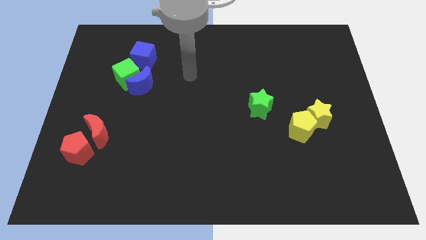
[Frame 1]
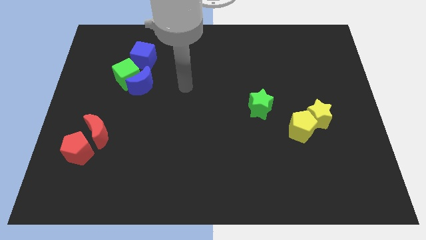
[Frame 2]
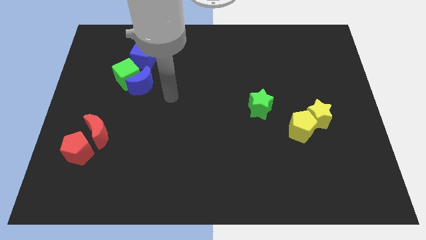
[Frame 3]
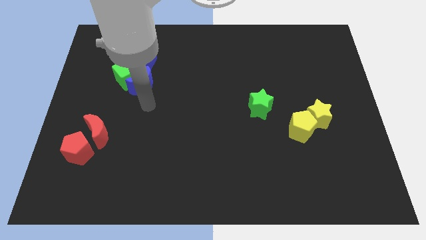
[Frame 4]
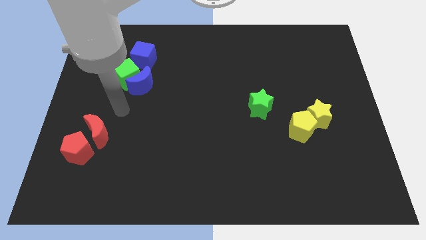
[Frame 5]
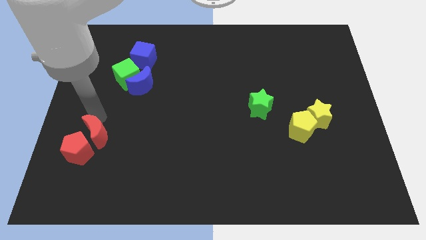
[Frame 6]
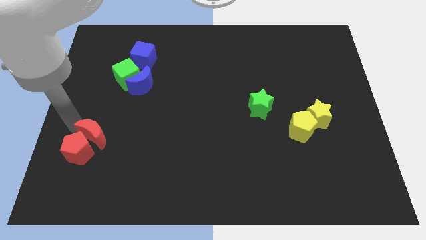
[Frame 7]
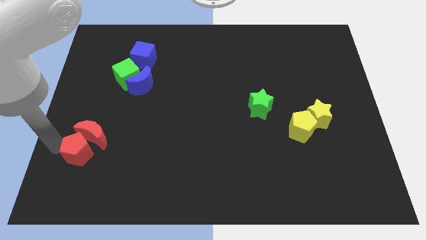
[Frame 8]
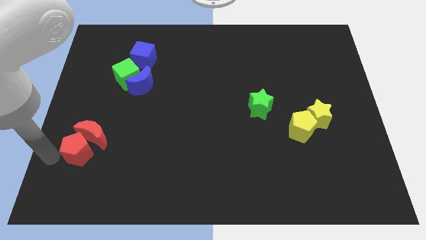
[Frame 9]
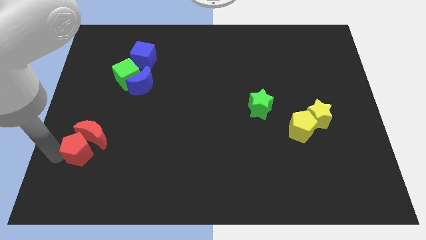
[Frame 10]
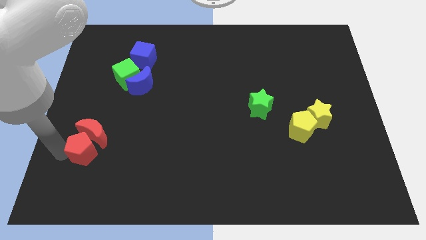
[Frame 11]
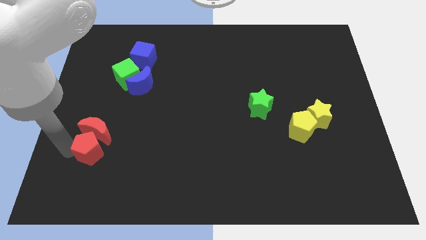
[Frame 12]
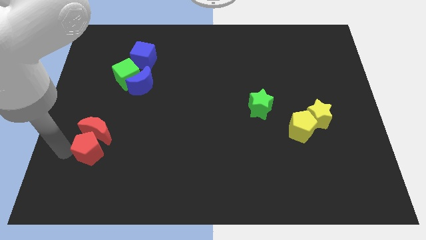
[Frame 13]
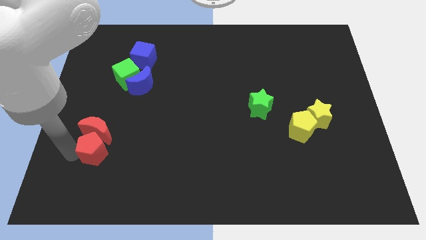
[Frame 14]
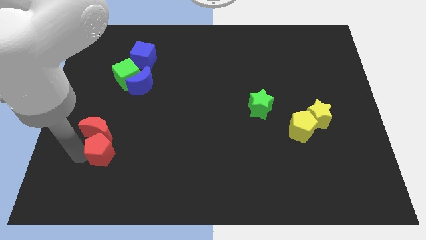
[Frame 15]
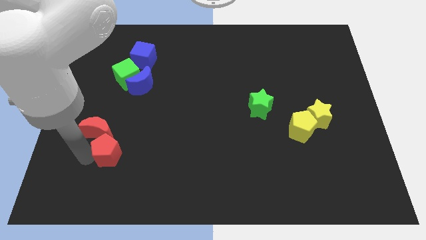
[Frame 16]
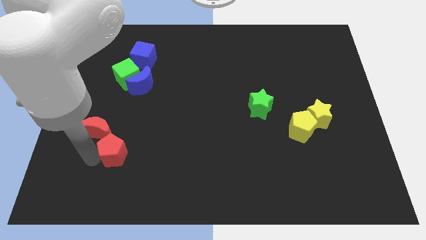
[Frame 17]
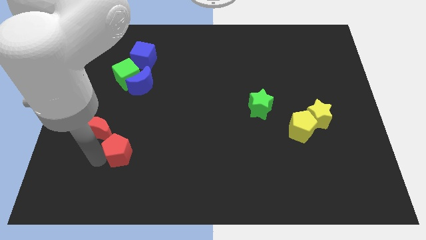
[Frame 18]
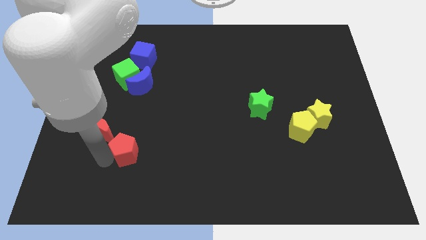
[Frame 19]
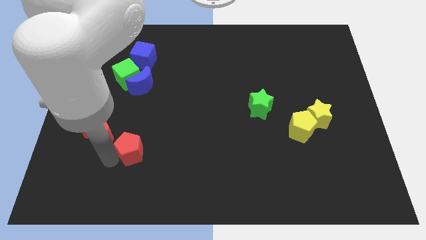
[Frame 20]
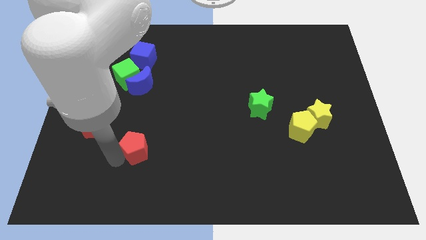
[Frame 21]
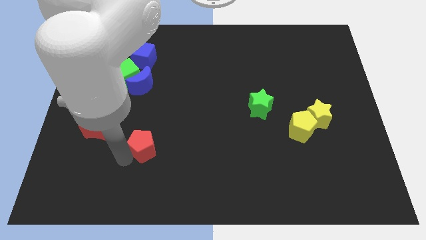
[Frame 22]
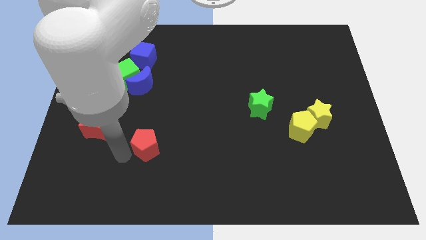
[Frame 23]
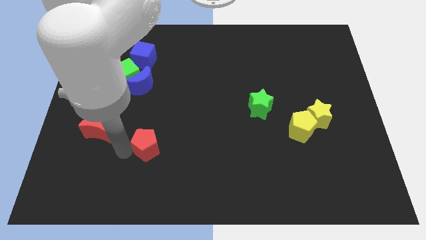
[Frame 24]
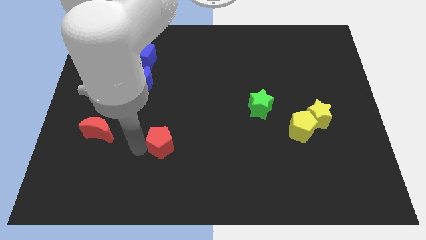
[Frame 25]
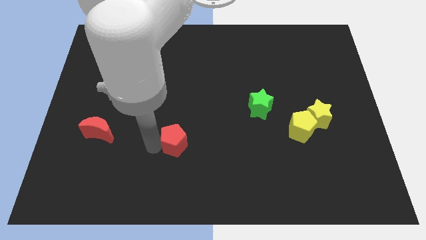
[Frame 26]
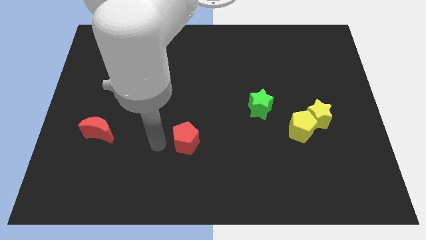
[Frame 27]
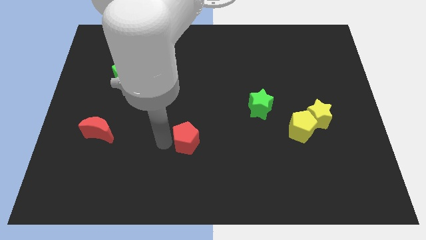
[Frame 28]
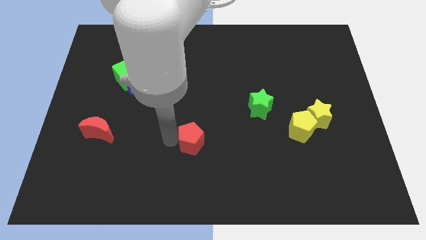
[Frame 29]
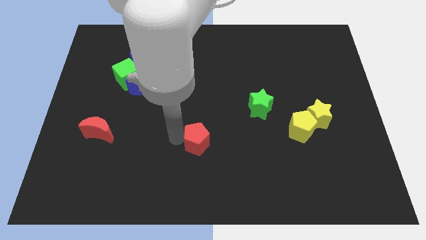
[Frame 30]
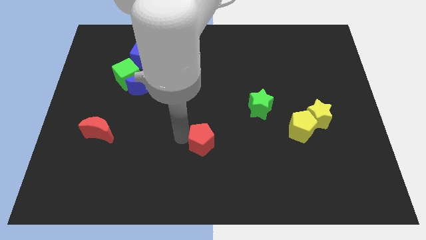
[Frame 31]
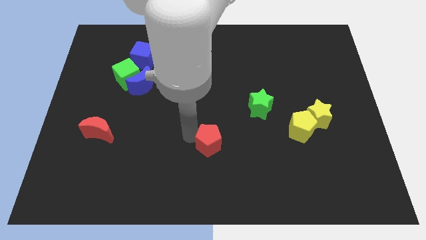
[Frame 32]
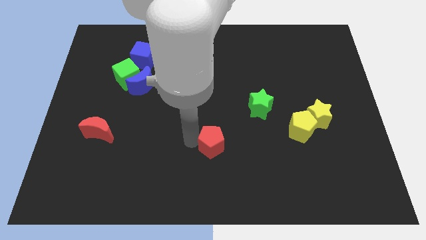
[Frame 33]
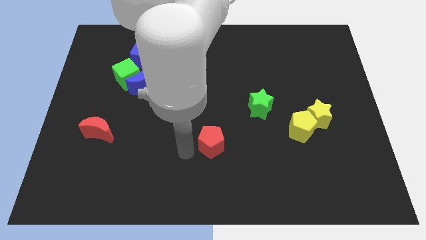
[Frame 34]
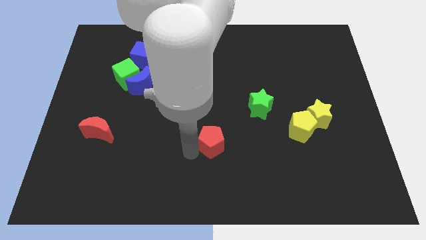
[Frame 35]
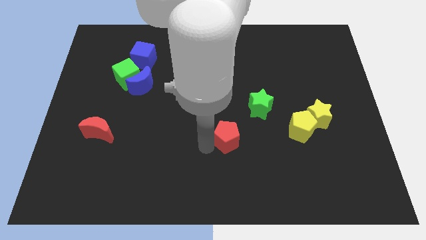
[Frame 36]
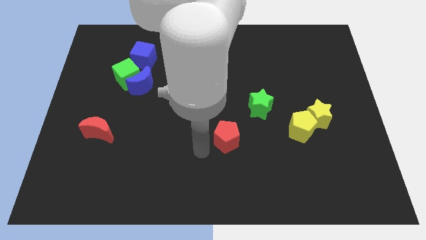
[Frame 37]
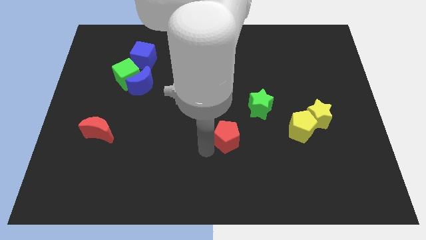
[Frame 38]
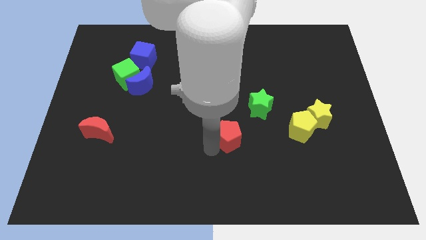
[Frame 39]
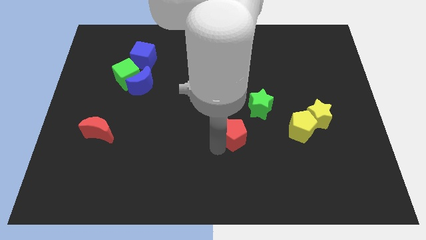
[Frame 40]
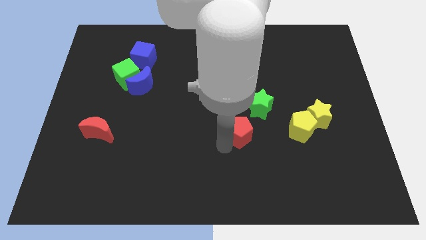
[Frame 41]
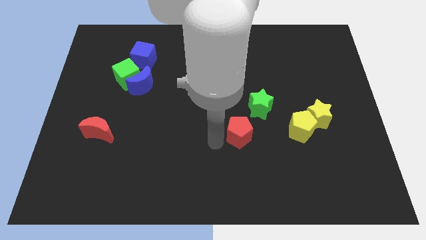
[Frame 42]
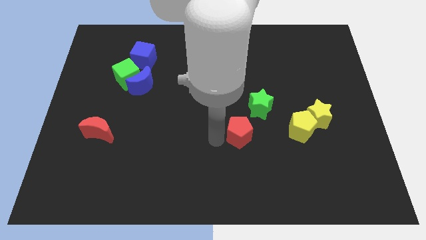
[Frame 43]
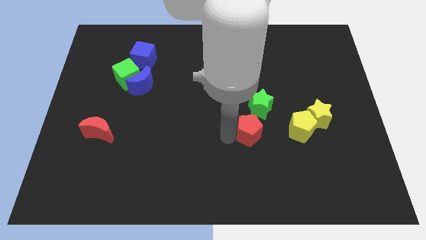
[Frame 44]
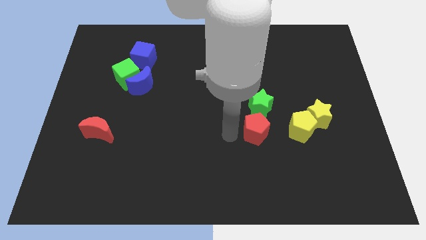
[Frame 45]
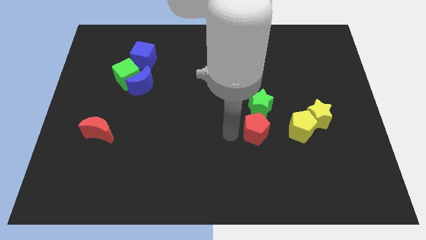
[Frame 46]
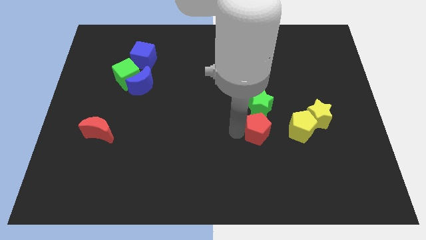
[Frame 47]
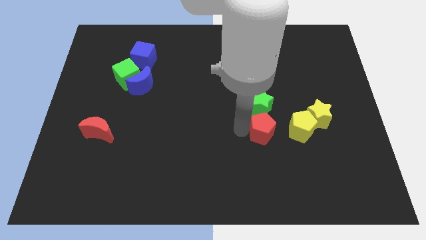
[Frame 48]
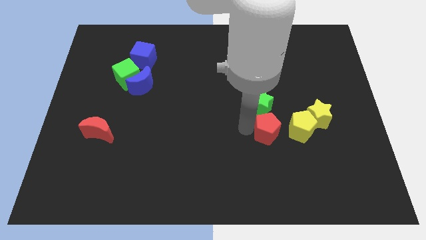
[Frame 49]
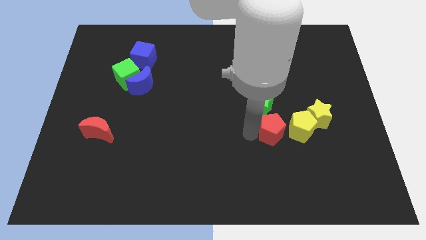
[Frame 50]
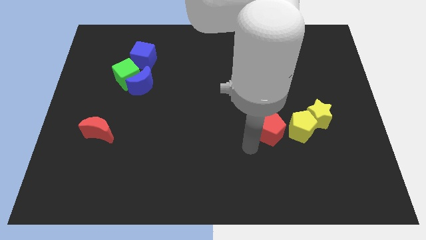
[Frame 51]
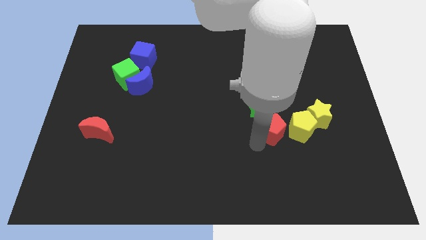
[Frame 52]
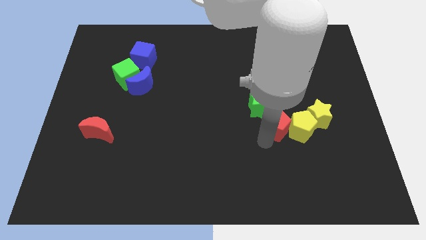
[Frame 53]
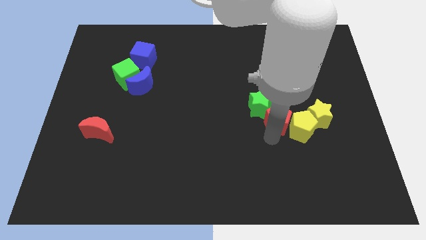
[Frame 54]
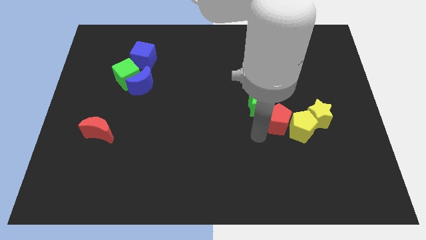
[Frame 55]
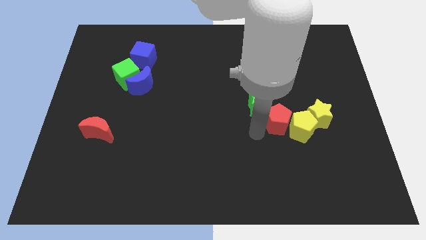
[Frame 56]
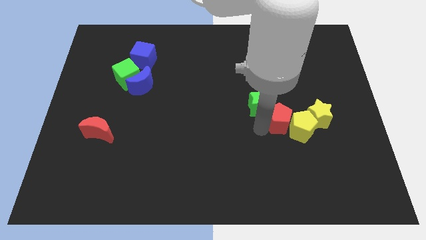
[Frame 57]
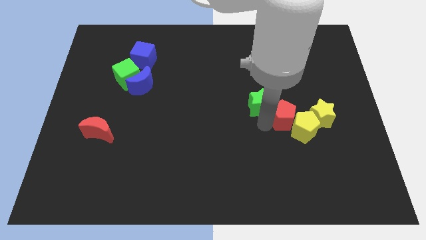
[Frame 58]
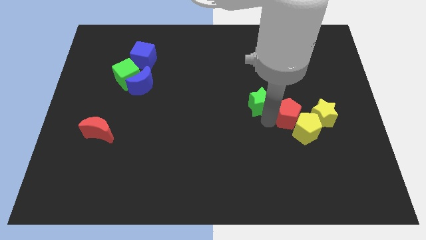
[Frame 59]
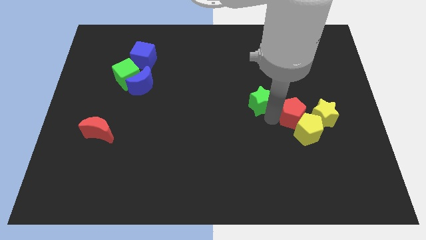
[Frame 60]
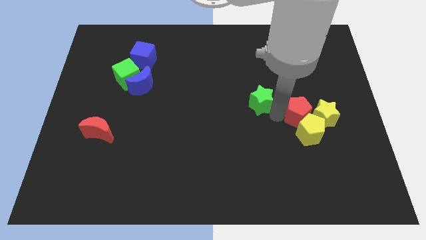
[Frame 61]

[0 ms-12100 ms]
move the red pentagon to the yellow star

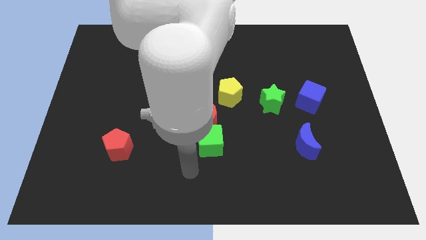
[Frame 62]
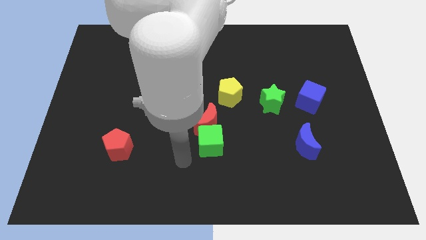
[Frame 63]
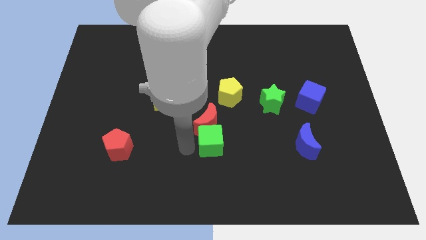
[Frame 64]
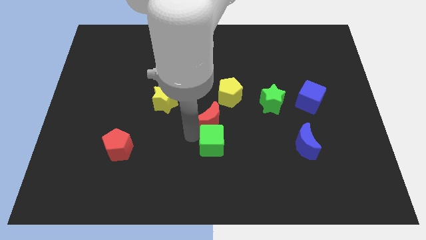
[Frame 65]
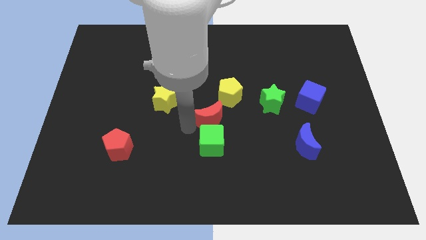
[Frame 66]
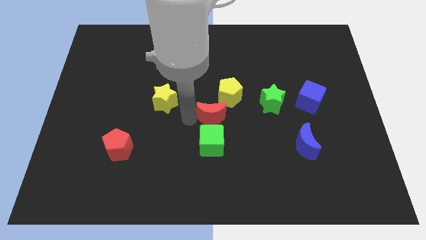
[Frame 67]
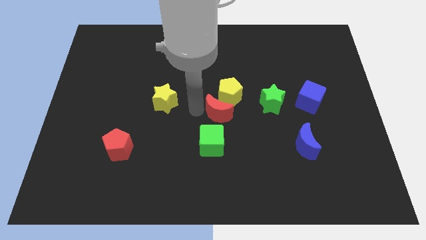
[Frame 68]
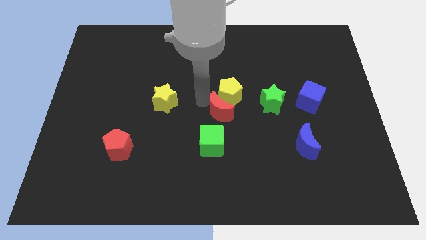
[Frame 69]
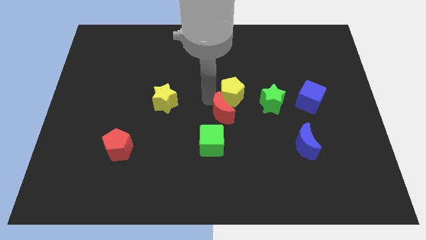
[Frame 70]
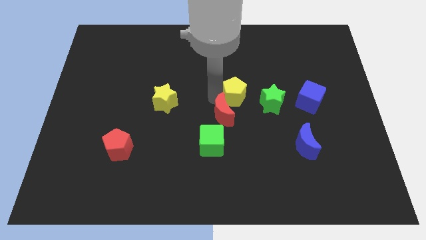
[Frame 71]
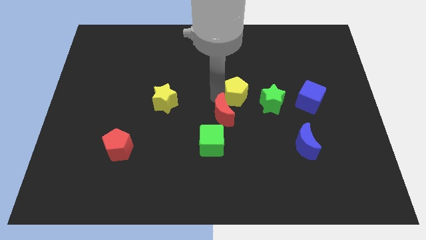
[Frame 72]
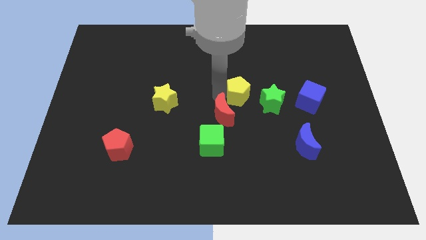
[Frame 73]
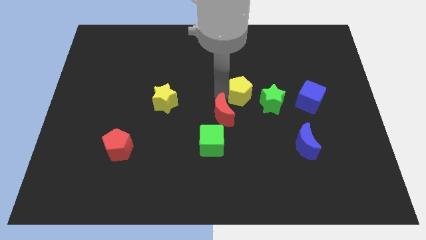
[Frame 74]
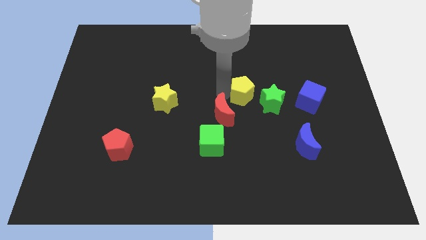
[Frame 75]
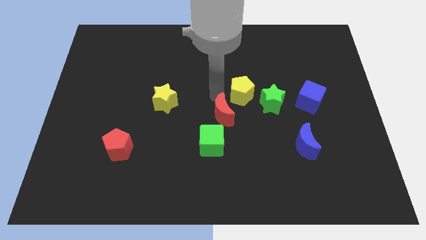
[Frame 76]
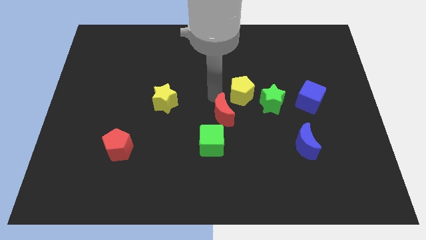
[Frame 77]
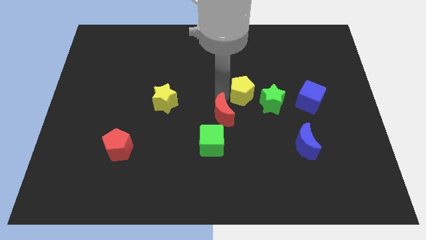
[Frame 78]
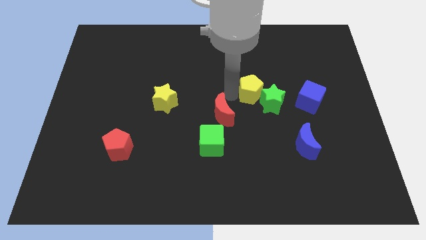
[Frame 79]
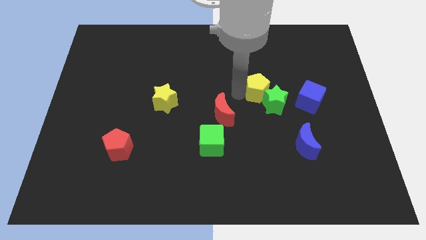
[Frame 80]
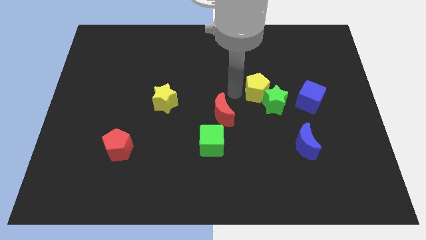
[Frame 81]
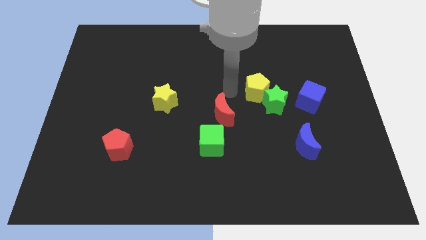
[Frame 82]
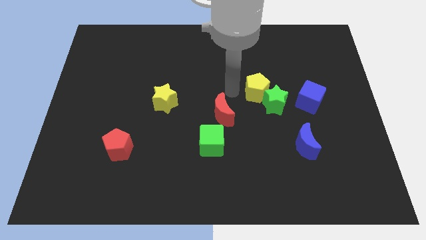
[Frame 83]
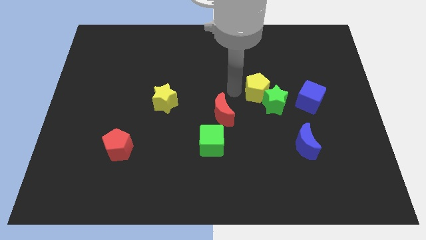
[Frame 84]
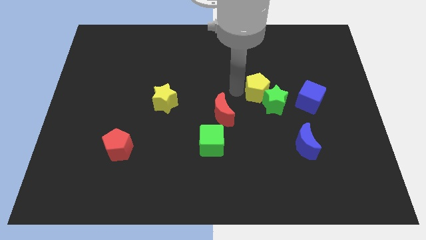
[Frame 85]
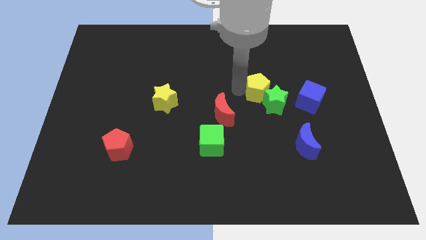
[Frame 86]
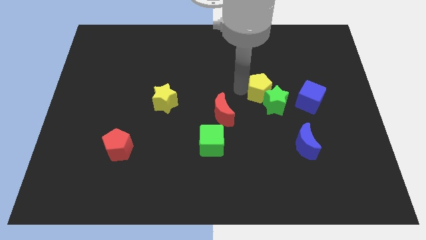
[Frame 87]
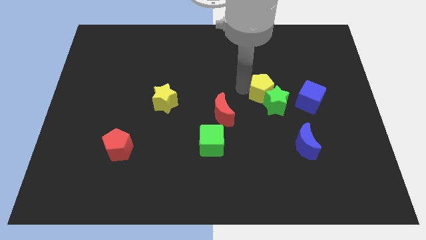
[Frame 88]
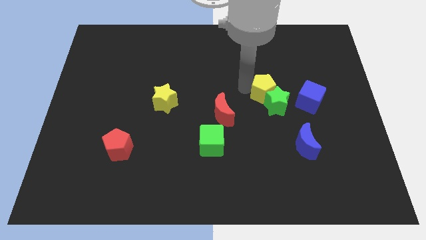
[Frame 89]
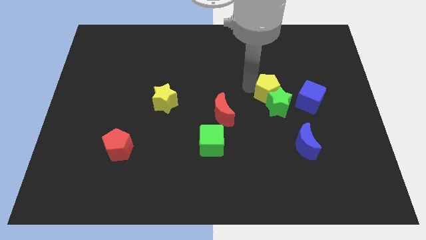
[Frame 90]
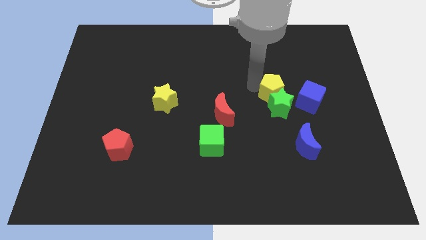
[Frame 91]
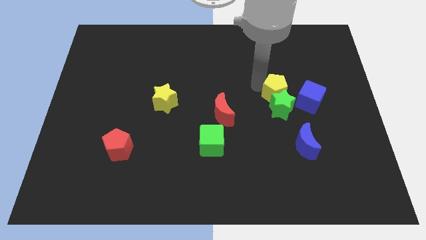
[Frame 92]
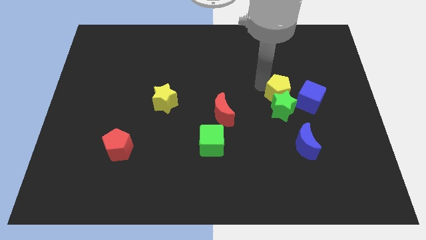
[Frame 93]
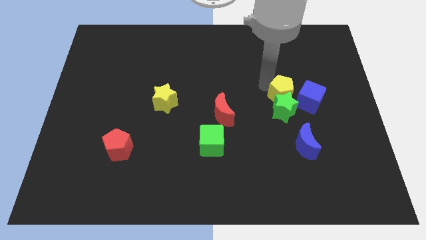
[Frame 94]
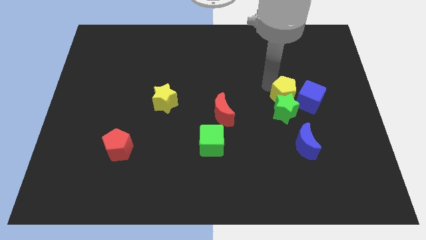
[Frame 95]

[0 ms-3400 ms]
move the yellow pentagon towards the blue cube
